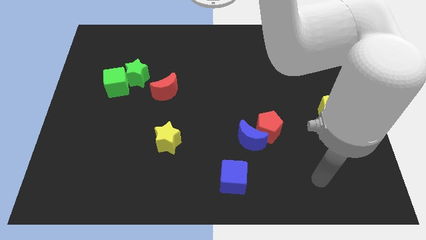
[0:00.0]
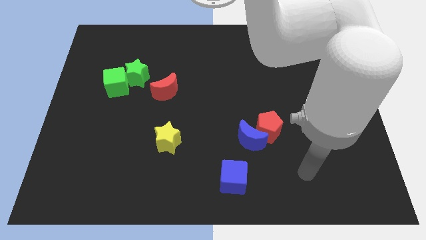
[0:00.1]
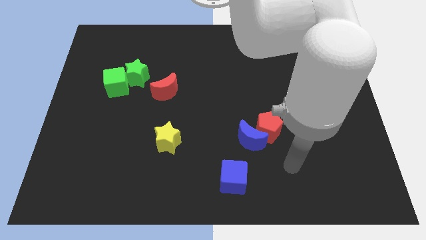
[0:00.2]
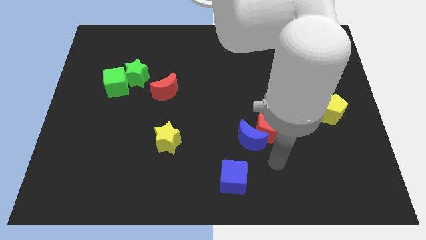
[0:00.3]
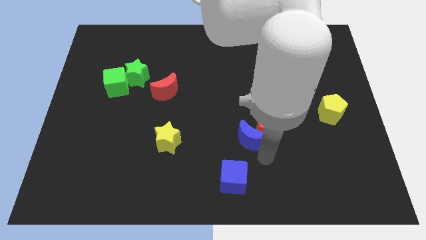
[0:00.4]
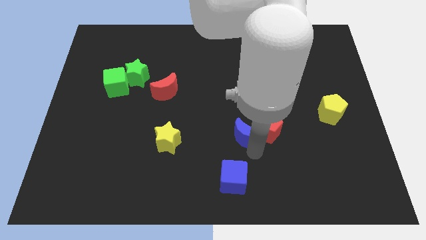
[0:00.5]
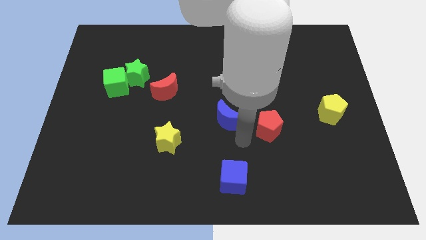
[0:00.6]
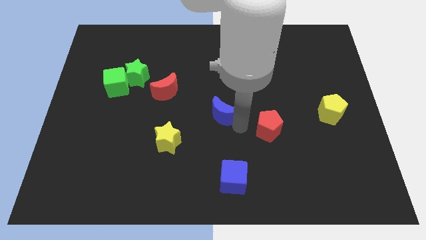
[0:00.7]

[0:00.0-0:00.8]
pull the red pentagon apart from the blue moon

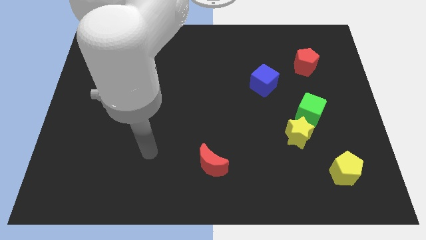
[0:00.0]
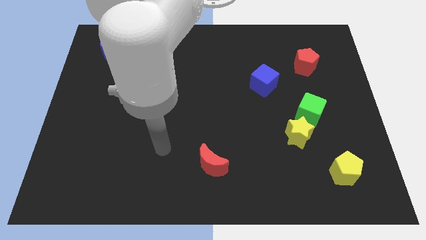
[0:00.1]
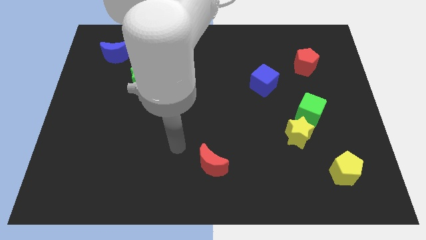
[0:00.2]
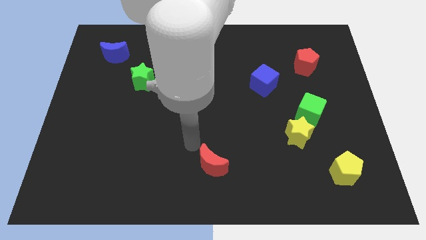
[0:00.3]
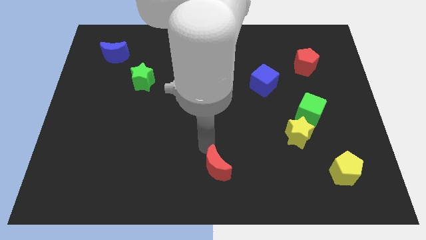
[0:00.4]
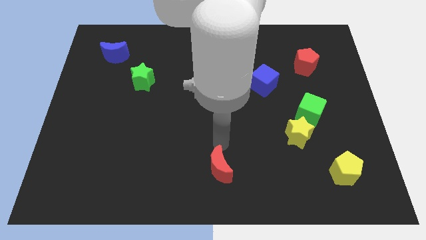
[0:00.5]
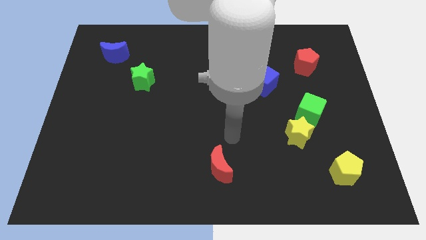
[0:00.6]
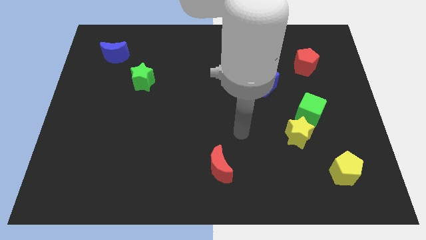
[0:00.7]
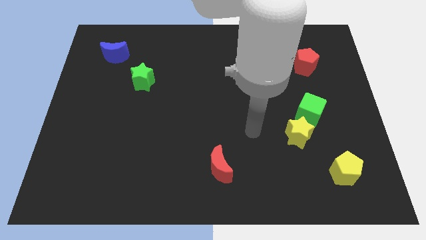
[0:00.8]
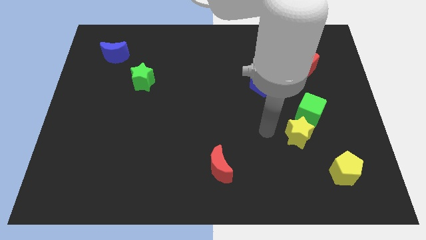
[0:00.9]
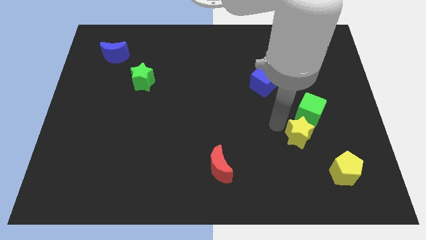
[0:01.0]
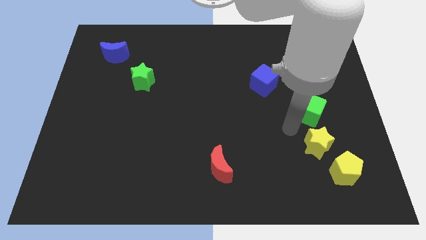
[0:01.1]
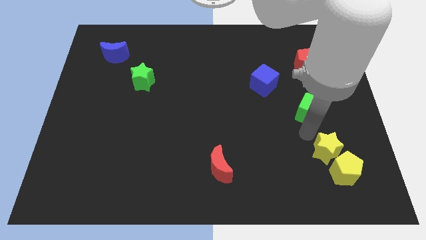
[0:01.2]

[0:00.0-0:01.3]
move the green cube away from the yellow star

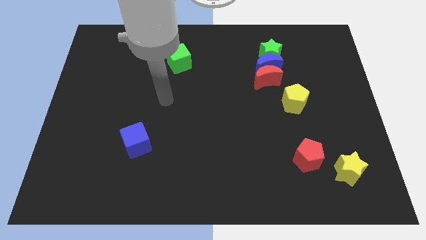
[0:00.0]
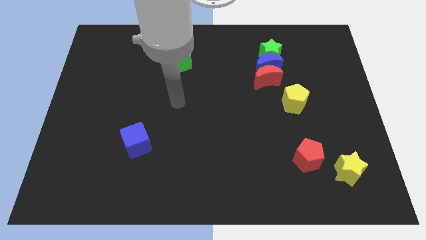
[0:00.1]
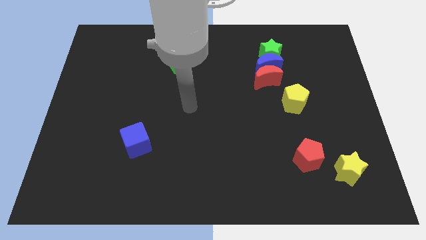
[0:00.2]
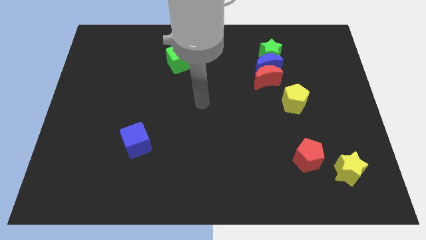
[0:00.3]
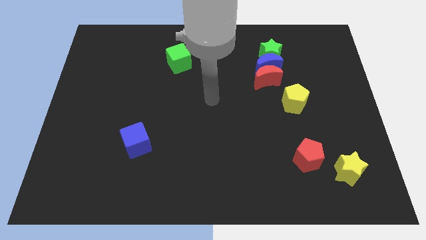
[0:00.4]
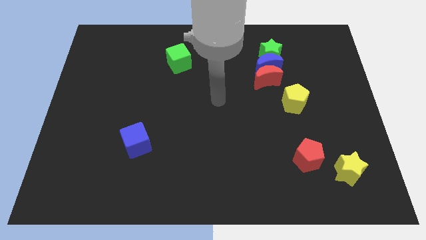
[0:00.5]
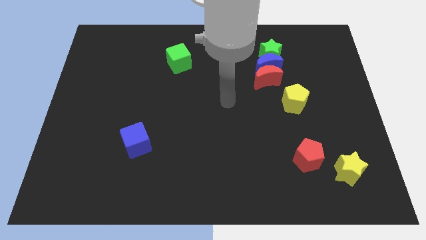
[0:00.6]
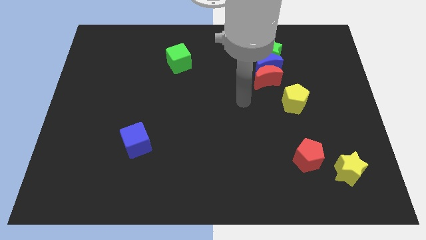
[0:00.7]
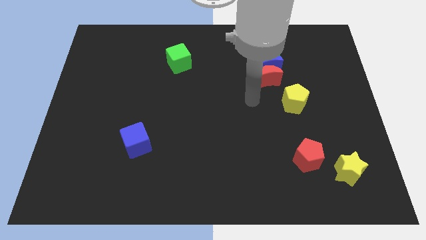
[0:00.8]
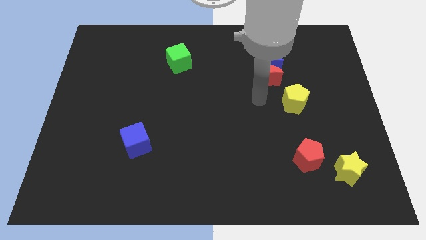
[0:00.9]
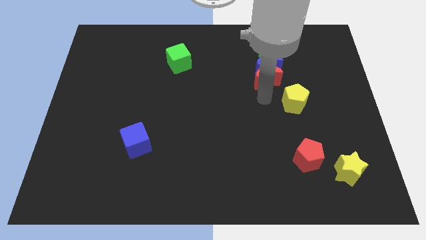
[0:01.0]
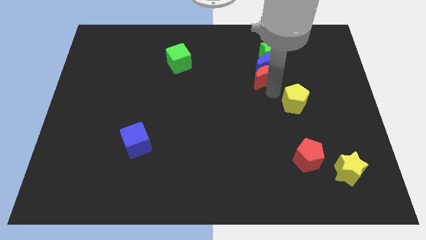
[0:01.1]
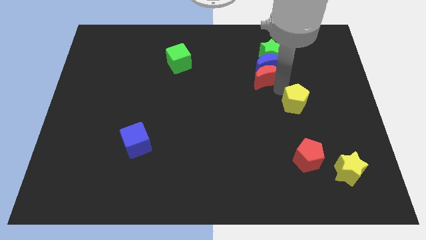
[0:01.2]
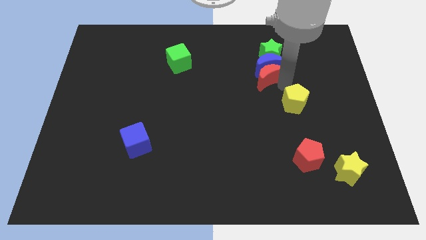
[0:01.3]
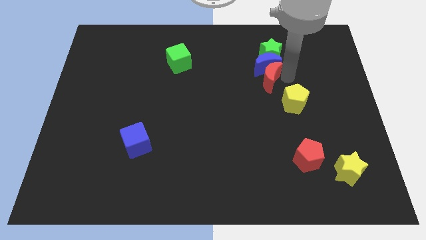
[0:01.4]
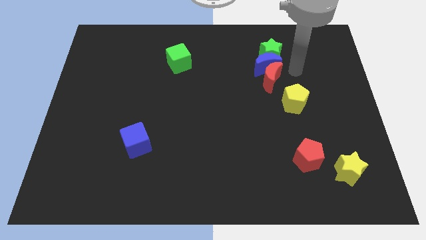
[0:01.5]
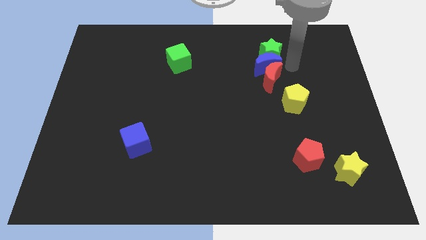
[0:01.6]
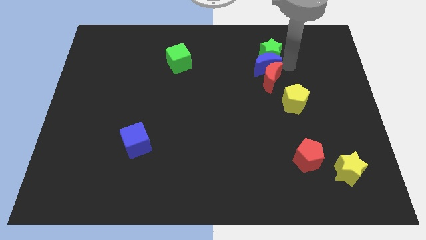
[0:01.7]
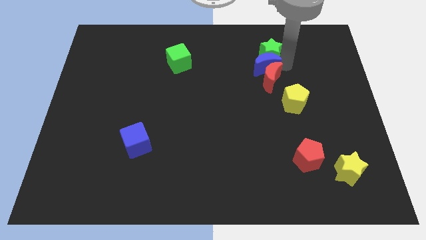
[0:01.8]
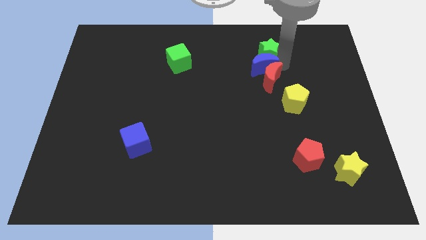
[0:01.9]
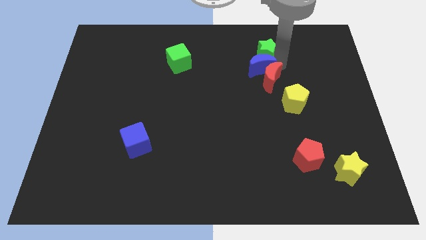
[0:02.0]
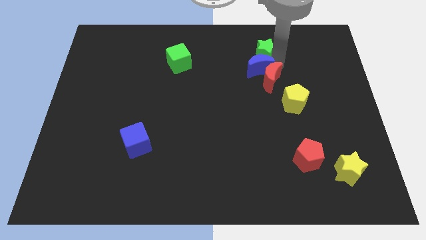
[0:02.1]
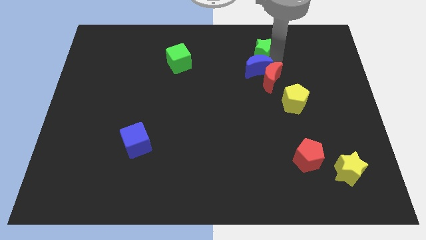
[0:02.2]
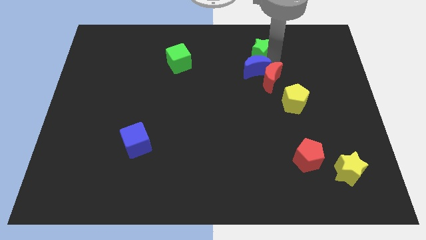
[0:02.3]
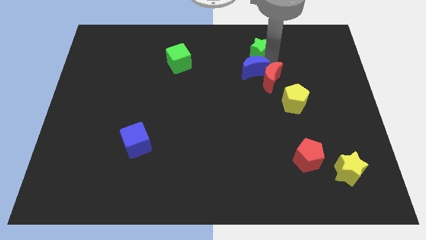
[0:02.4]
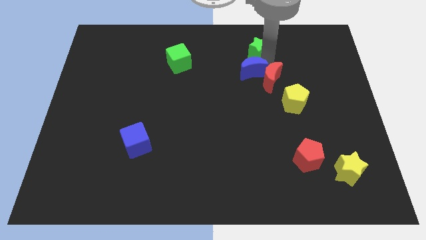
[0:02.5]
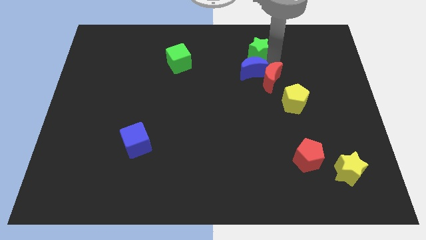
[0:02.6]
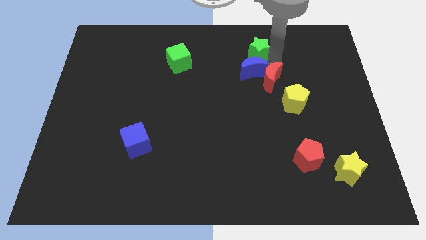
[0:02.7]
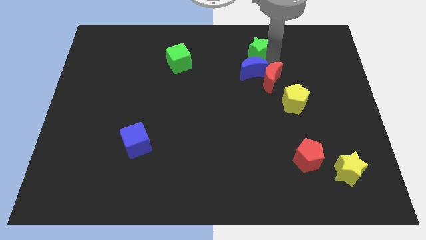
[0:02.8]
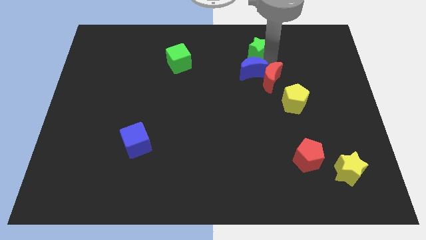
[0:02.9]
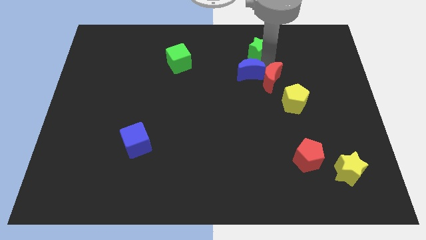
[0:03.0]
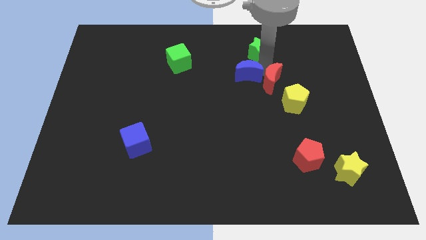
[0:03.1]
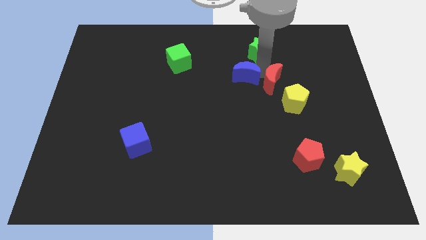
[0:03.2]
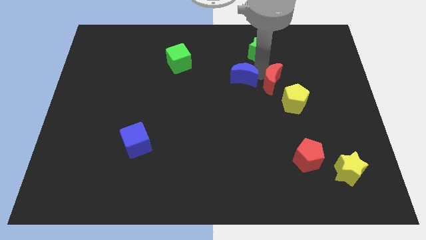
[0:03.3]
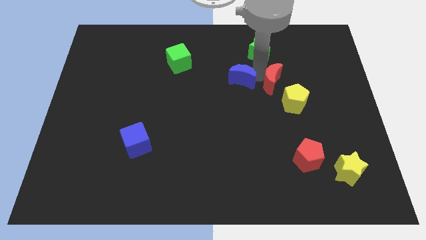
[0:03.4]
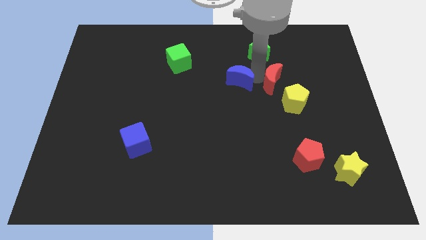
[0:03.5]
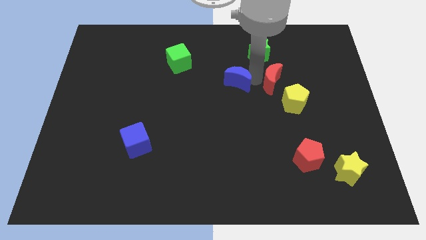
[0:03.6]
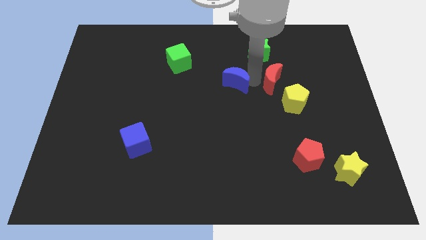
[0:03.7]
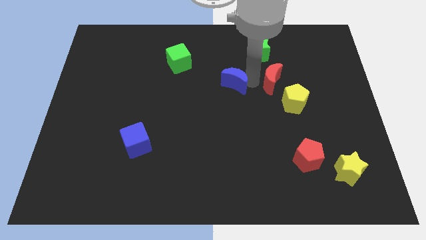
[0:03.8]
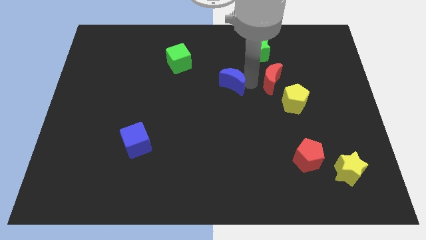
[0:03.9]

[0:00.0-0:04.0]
pull the blue moon apart from the red moon and green star

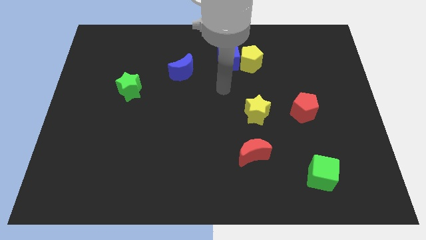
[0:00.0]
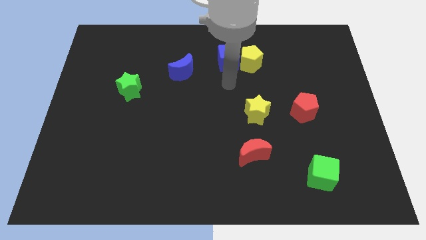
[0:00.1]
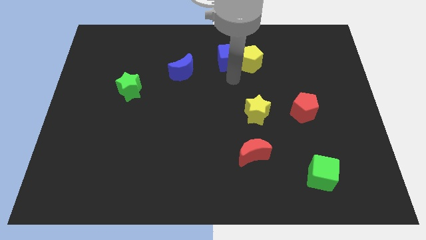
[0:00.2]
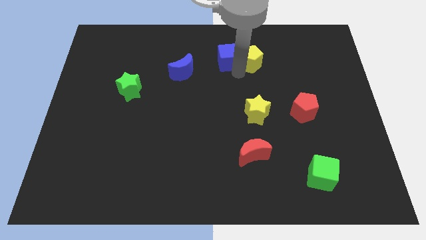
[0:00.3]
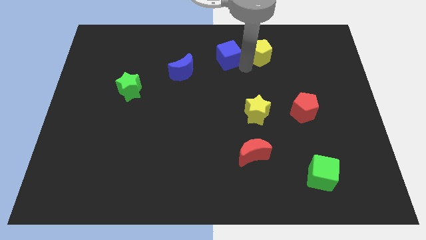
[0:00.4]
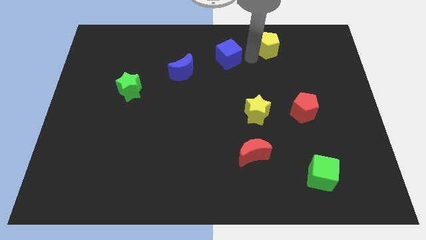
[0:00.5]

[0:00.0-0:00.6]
pull the blue cube apart from the yellow pentagon

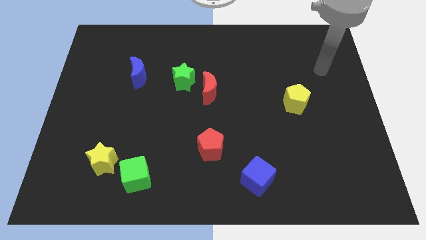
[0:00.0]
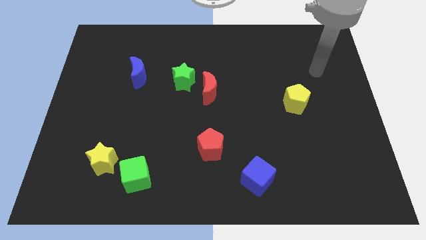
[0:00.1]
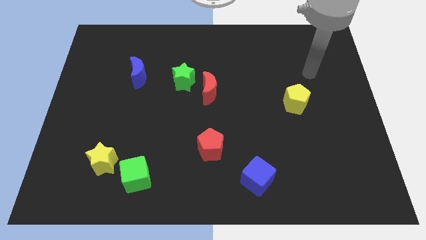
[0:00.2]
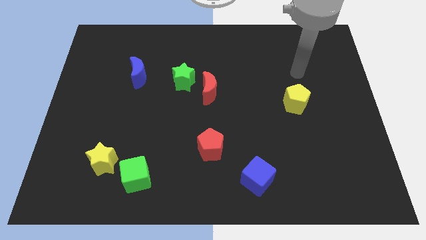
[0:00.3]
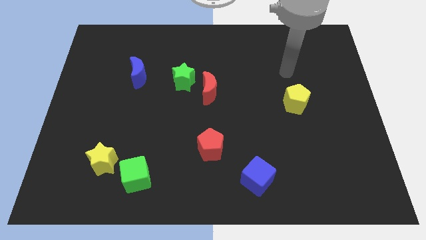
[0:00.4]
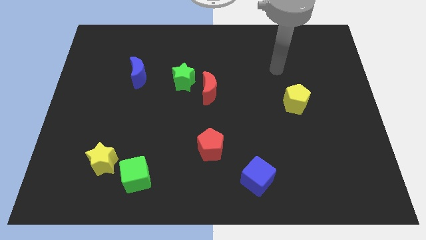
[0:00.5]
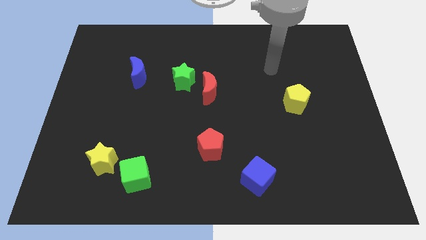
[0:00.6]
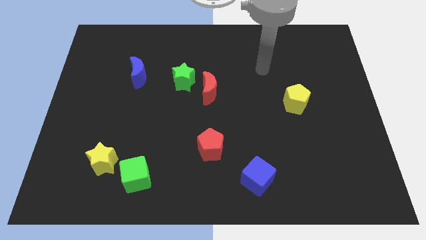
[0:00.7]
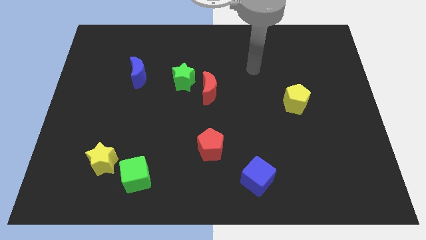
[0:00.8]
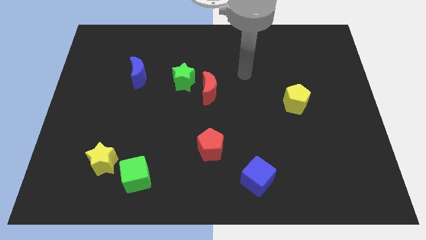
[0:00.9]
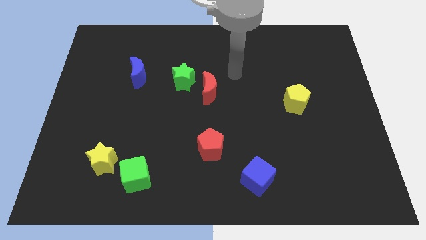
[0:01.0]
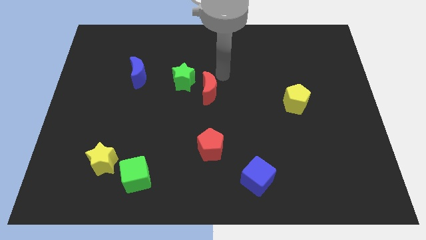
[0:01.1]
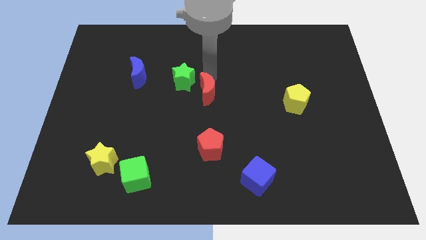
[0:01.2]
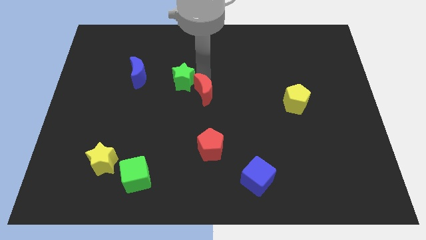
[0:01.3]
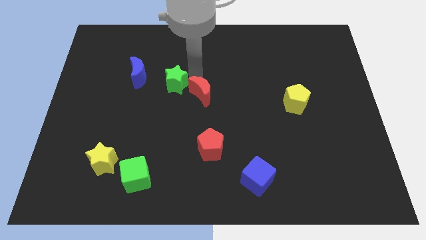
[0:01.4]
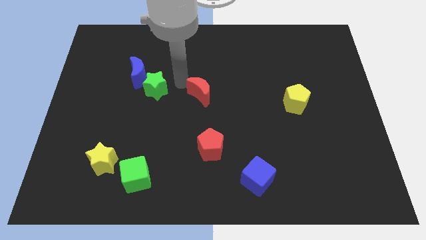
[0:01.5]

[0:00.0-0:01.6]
pull the red moon apart from the green star

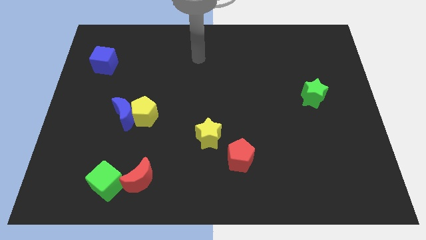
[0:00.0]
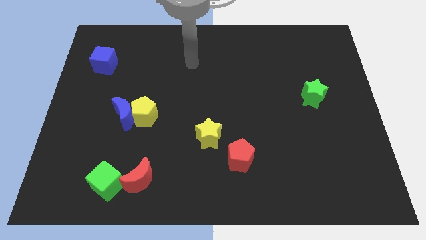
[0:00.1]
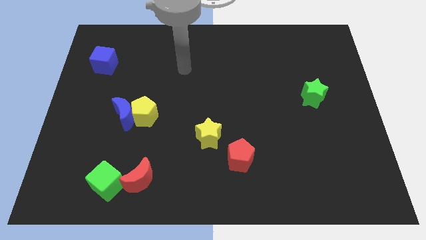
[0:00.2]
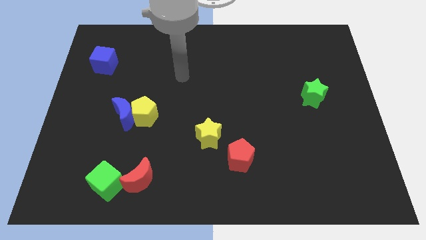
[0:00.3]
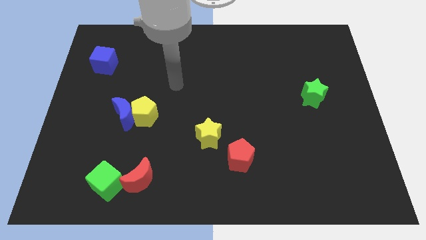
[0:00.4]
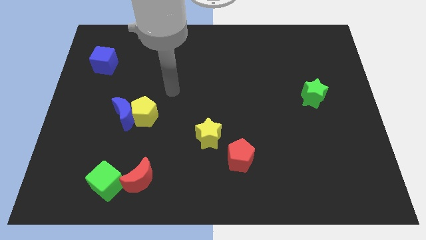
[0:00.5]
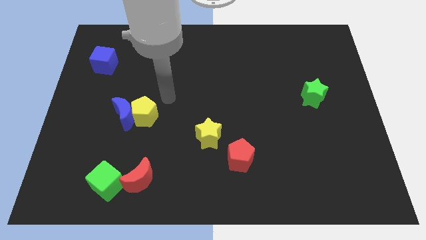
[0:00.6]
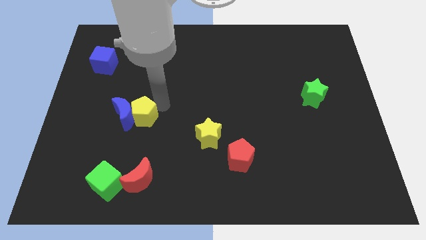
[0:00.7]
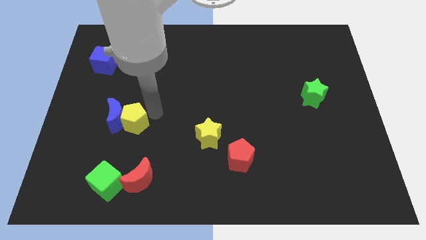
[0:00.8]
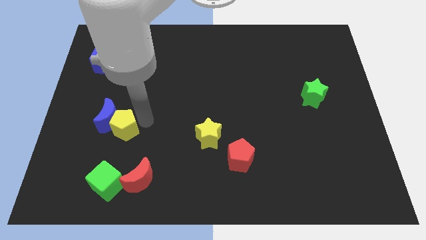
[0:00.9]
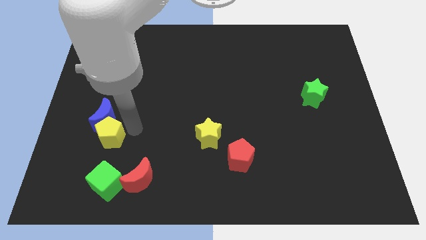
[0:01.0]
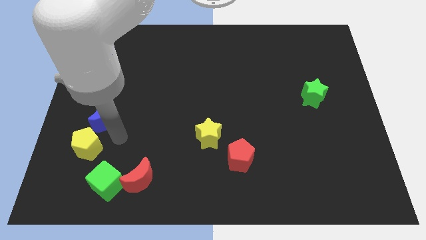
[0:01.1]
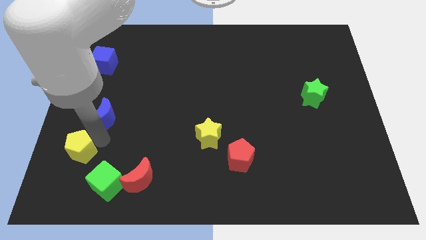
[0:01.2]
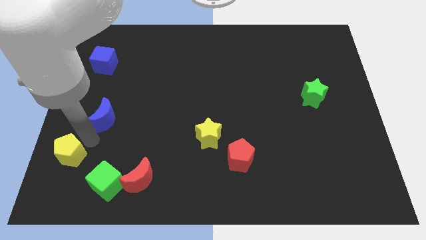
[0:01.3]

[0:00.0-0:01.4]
separate the blue moon from the yellow pentagon
